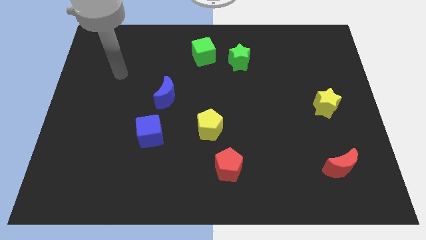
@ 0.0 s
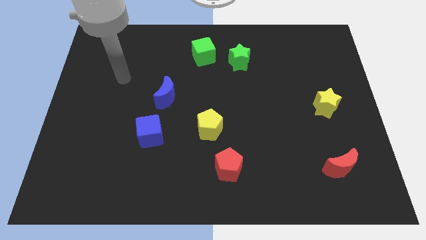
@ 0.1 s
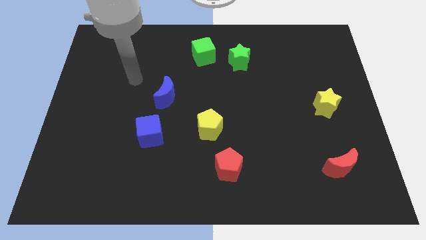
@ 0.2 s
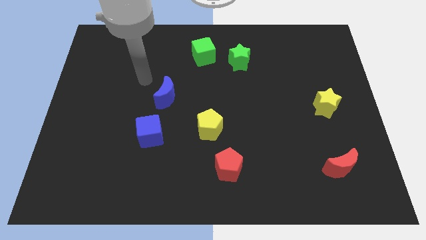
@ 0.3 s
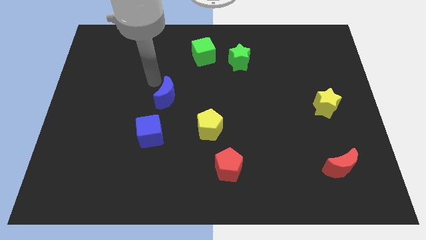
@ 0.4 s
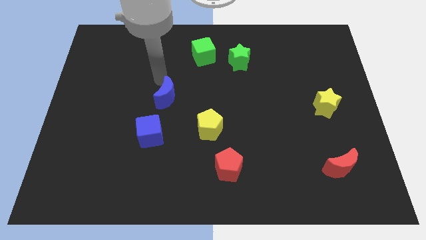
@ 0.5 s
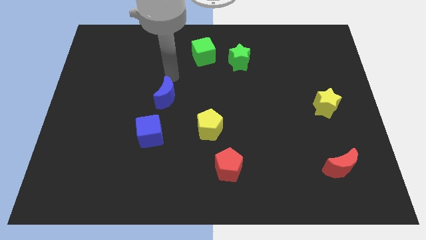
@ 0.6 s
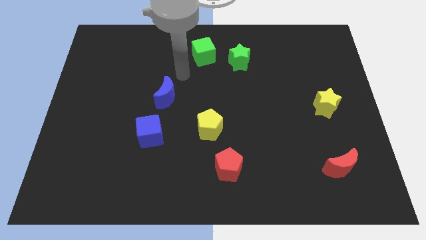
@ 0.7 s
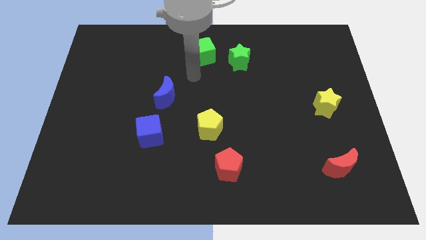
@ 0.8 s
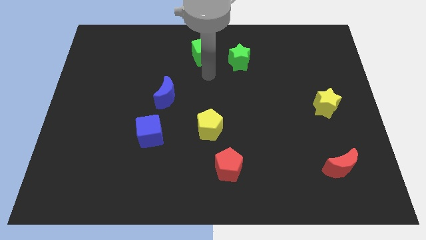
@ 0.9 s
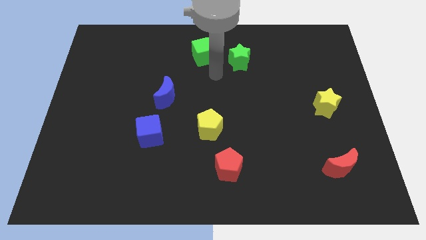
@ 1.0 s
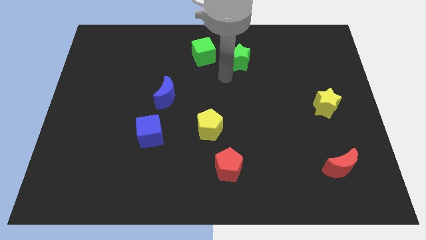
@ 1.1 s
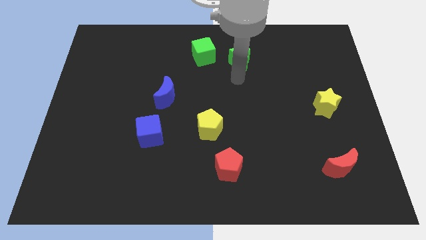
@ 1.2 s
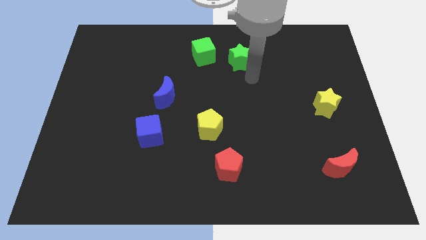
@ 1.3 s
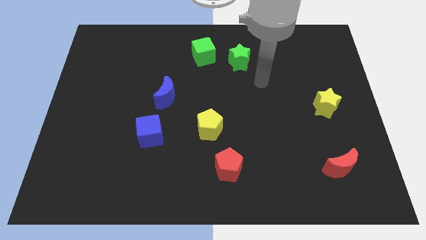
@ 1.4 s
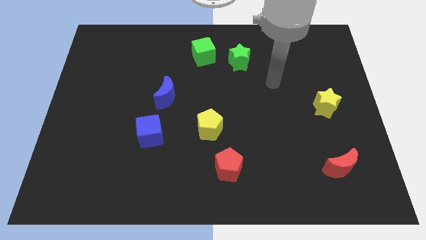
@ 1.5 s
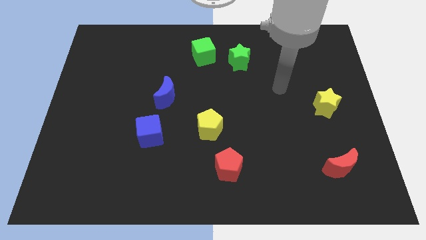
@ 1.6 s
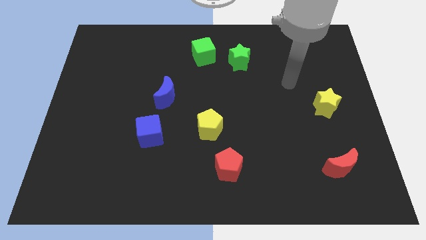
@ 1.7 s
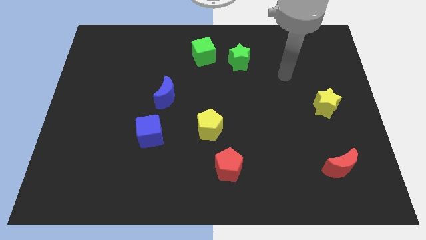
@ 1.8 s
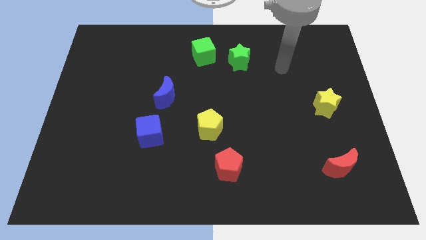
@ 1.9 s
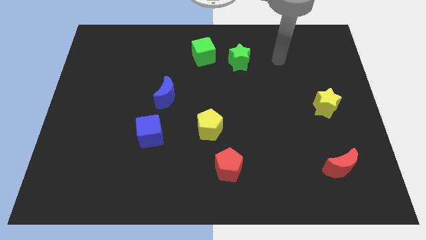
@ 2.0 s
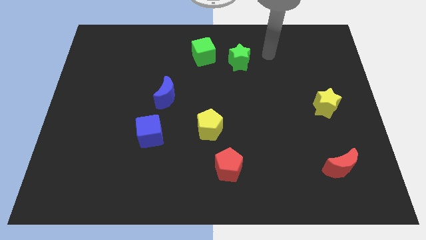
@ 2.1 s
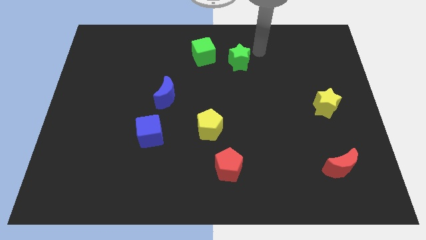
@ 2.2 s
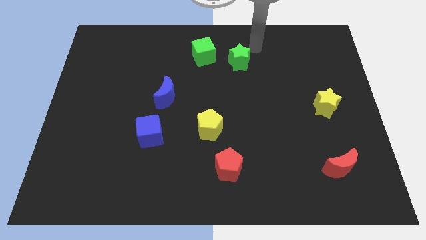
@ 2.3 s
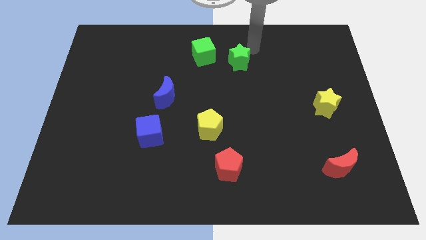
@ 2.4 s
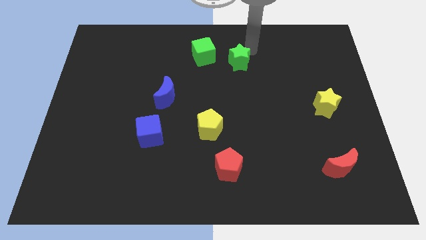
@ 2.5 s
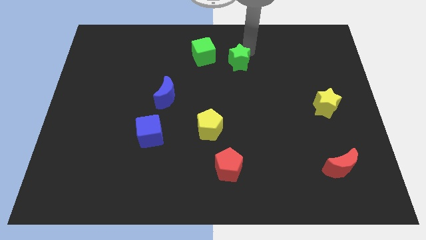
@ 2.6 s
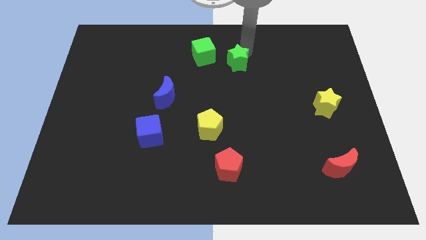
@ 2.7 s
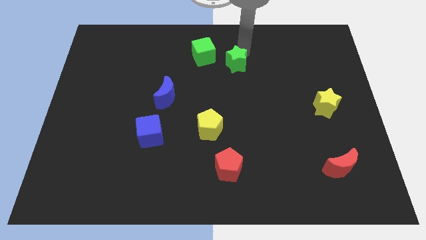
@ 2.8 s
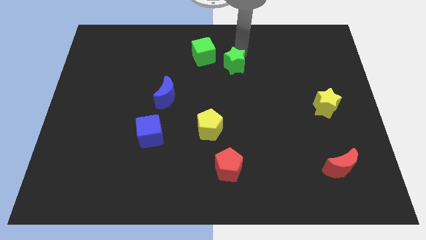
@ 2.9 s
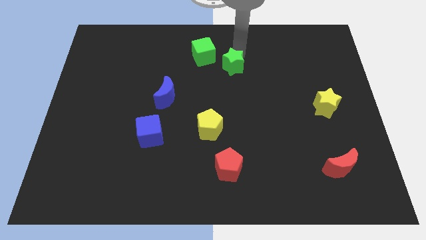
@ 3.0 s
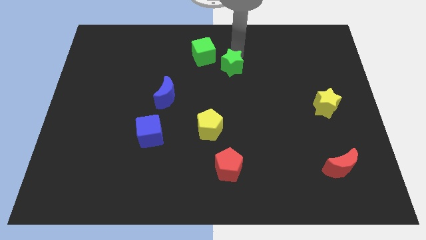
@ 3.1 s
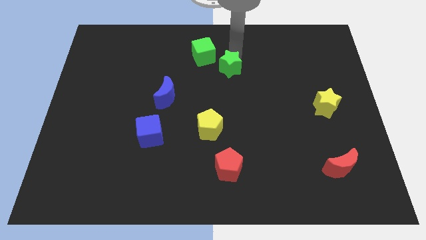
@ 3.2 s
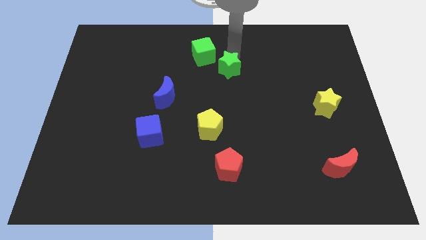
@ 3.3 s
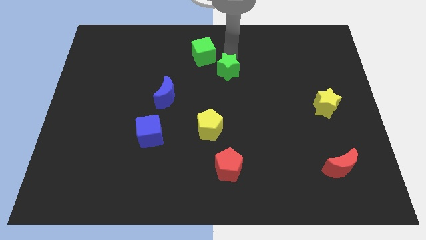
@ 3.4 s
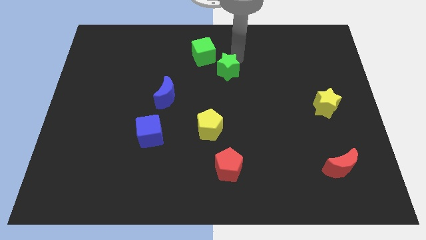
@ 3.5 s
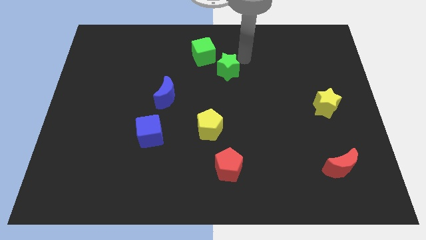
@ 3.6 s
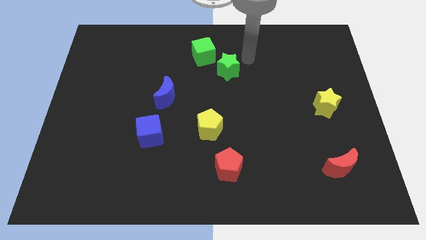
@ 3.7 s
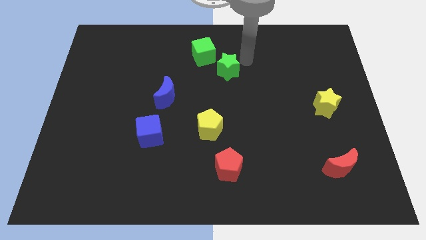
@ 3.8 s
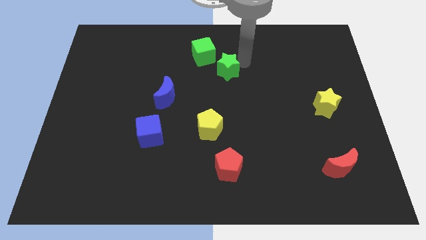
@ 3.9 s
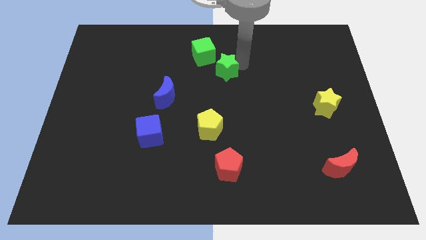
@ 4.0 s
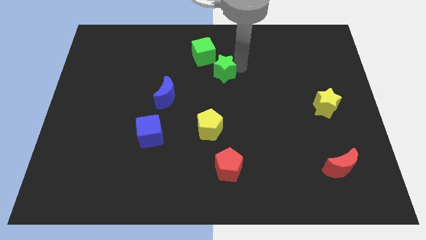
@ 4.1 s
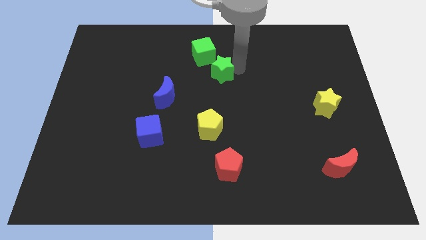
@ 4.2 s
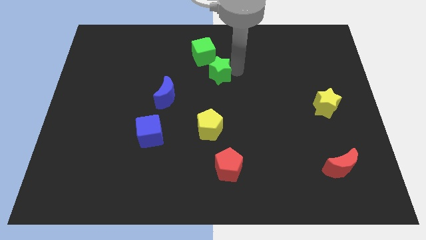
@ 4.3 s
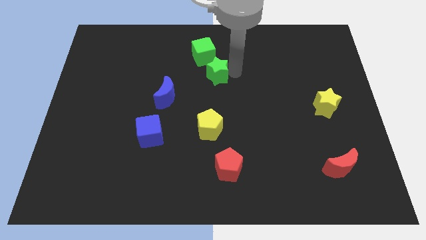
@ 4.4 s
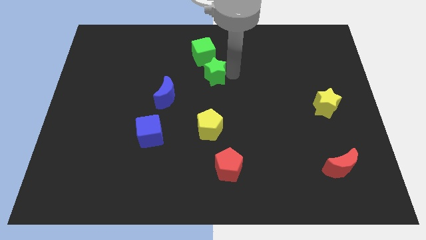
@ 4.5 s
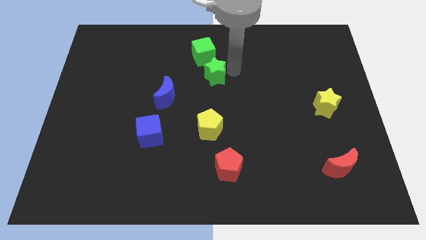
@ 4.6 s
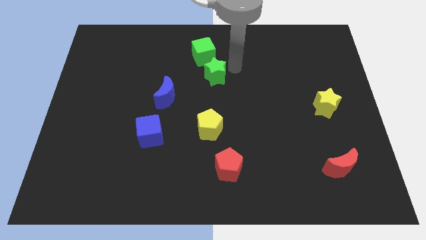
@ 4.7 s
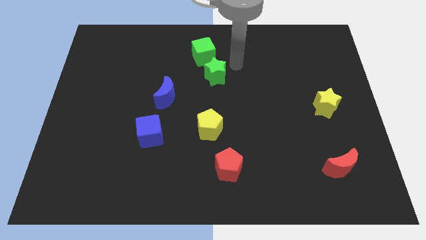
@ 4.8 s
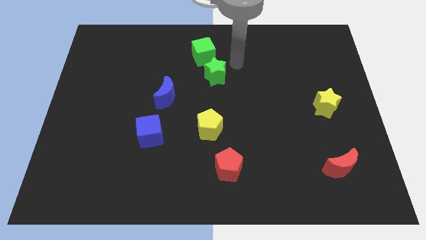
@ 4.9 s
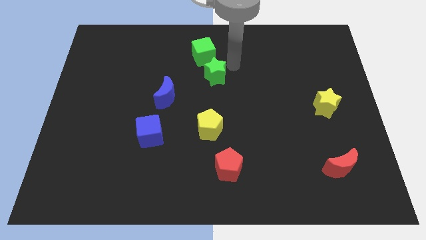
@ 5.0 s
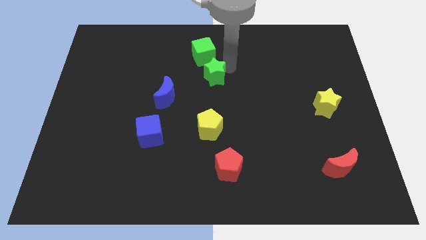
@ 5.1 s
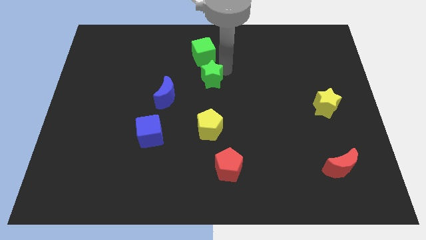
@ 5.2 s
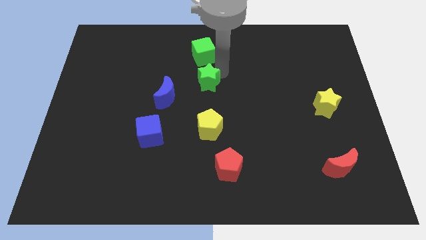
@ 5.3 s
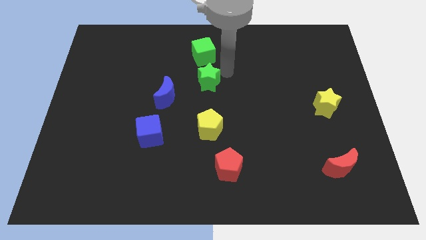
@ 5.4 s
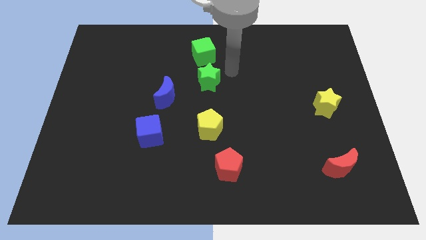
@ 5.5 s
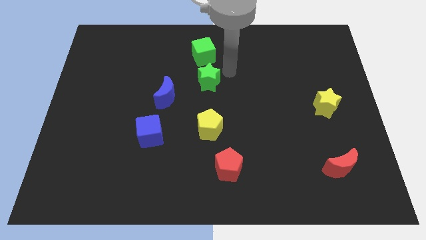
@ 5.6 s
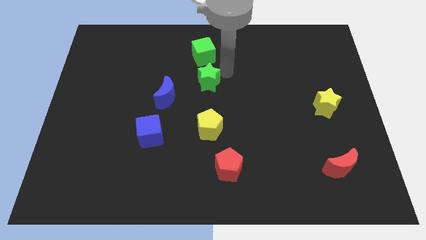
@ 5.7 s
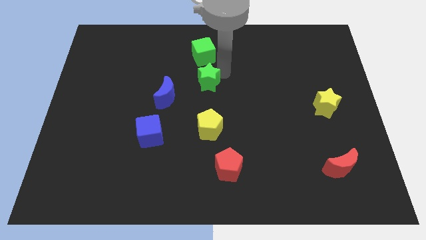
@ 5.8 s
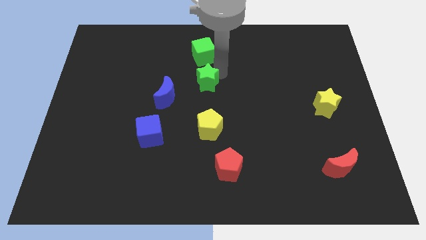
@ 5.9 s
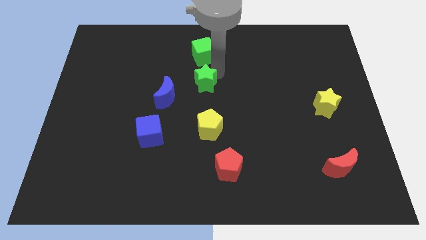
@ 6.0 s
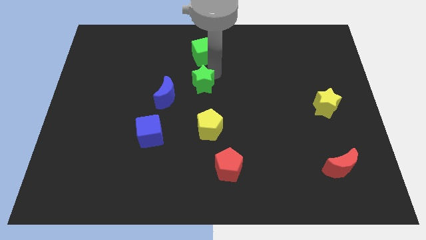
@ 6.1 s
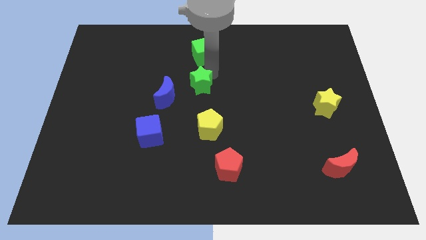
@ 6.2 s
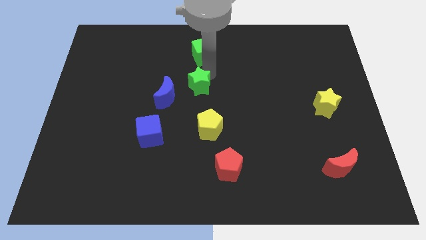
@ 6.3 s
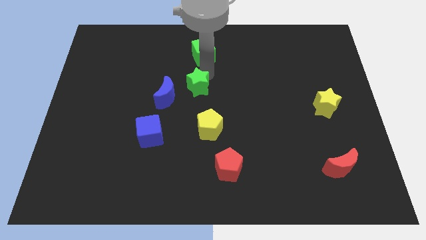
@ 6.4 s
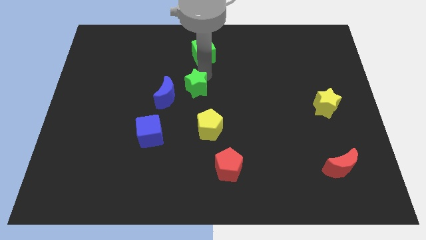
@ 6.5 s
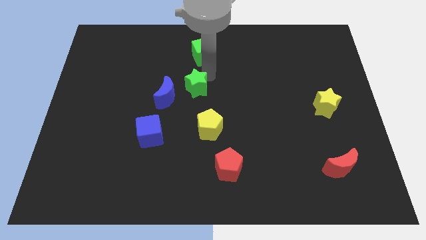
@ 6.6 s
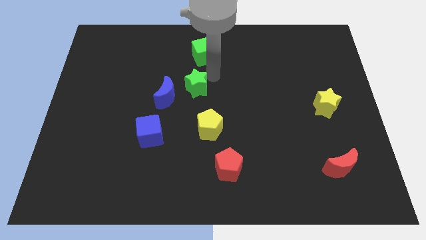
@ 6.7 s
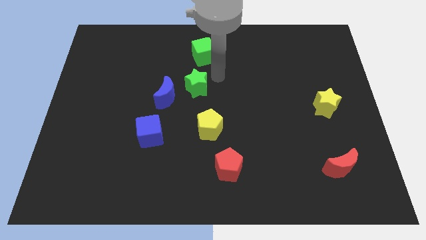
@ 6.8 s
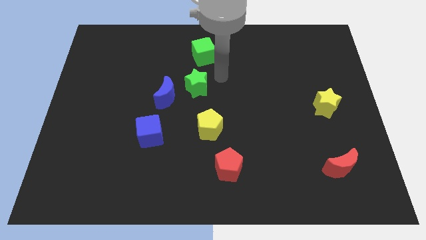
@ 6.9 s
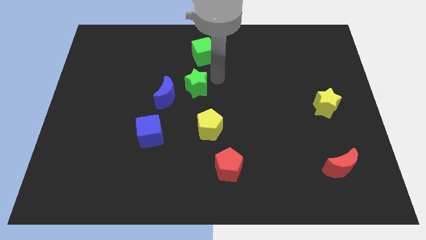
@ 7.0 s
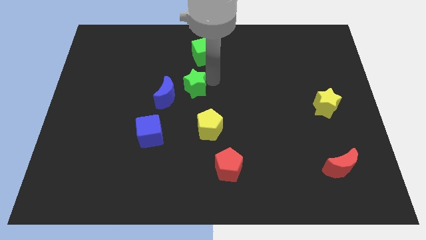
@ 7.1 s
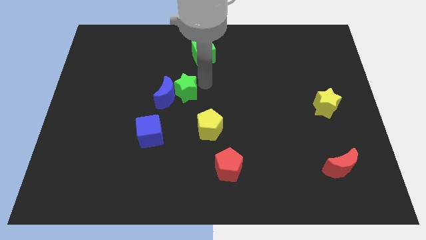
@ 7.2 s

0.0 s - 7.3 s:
put the green star towards the blue moon

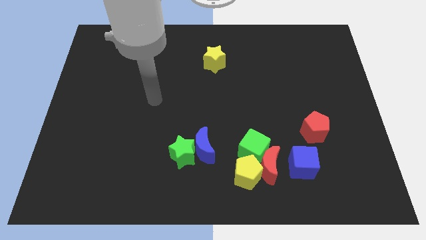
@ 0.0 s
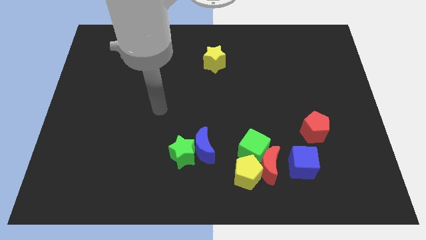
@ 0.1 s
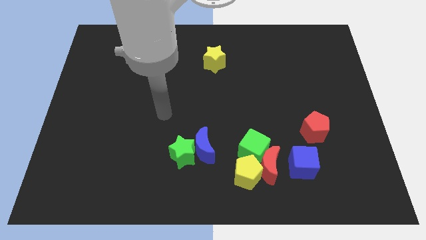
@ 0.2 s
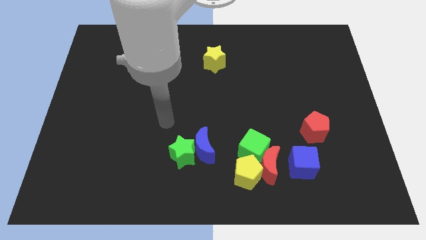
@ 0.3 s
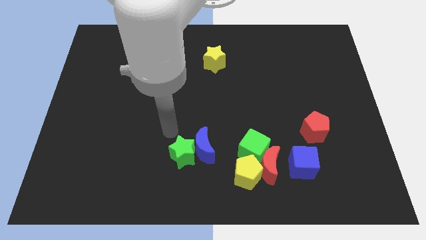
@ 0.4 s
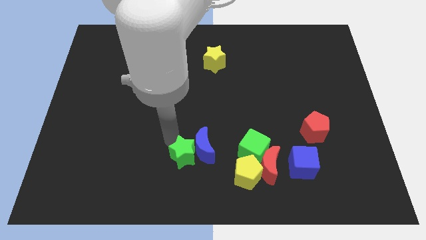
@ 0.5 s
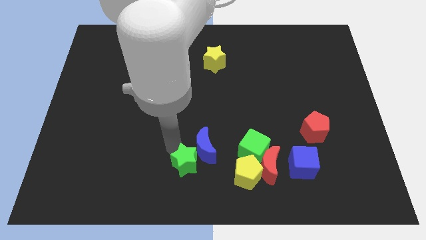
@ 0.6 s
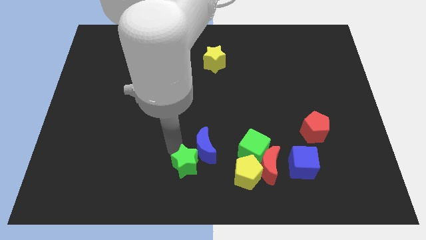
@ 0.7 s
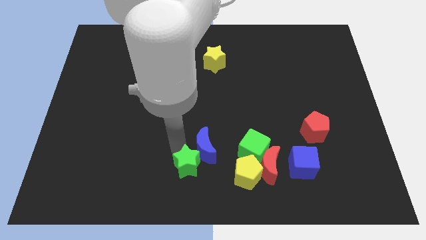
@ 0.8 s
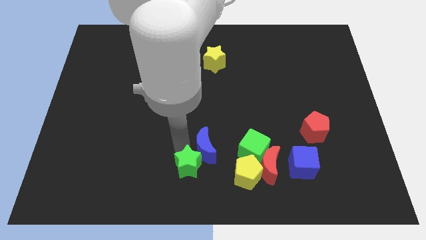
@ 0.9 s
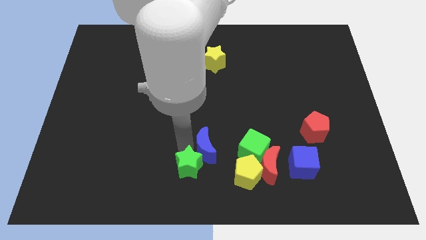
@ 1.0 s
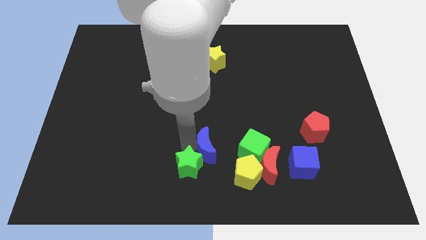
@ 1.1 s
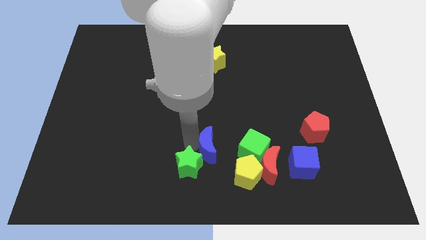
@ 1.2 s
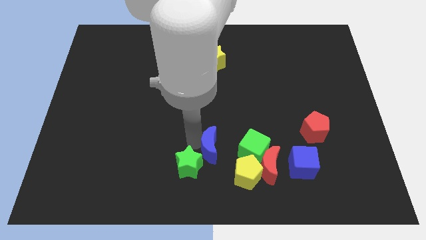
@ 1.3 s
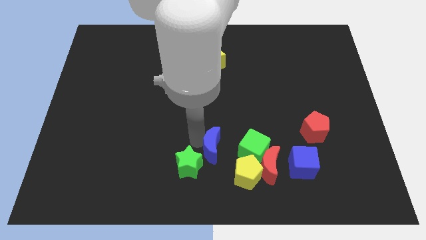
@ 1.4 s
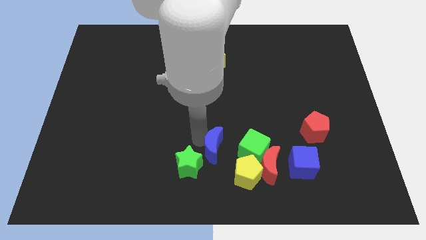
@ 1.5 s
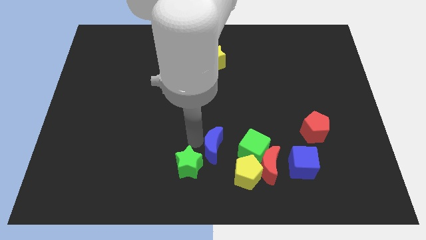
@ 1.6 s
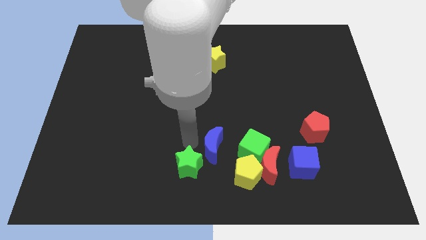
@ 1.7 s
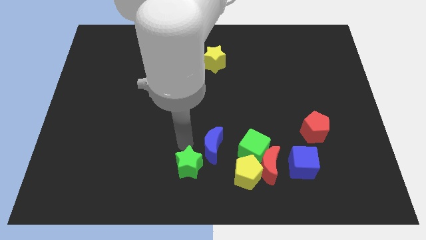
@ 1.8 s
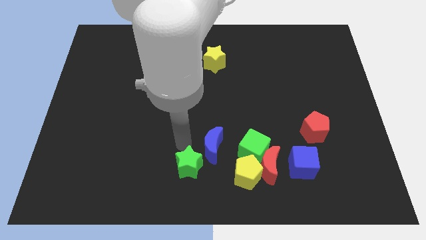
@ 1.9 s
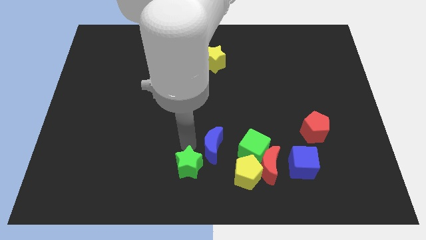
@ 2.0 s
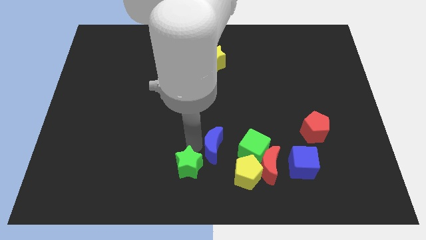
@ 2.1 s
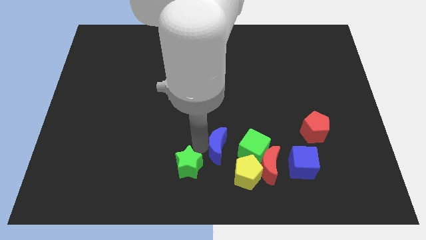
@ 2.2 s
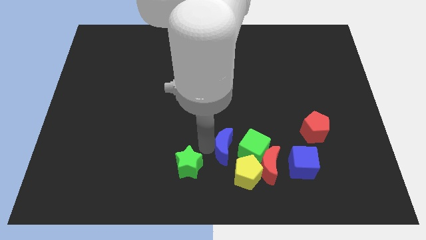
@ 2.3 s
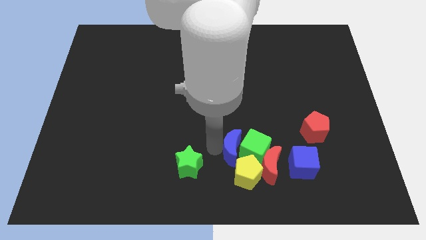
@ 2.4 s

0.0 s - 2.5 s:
slide the blue moon close to the green cube
